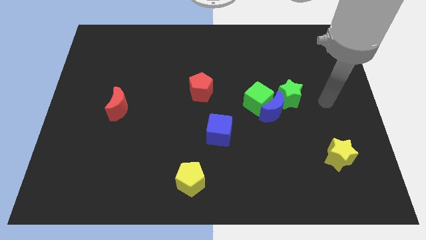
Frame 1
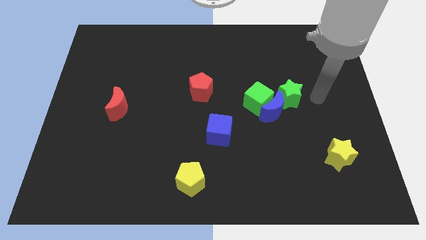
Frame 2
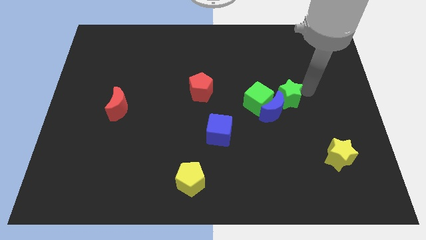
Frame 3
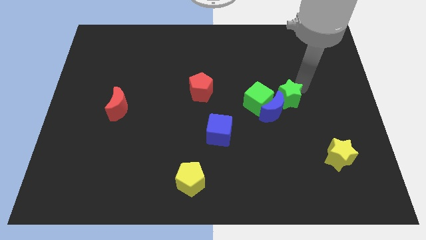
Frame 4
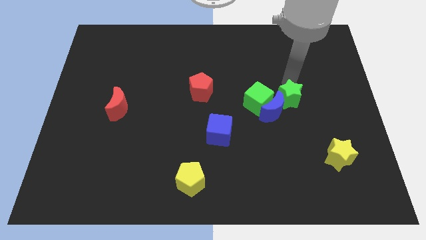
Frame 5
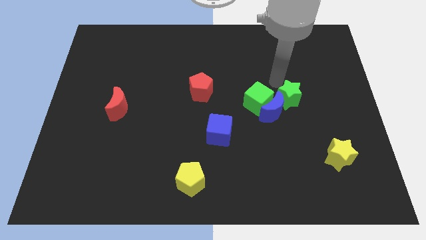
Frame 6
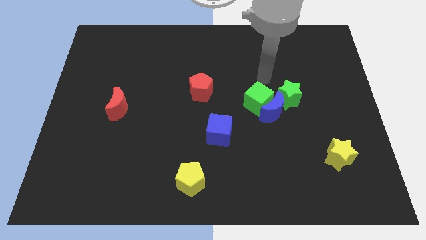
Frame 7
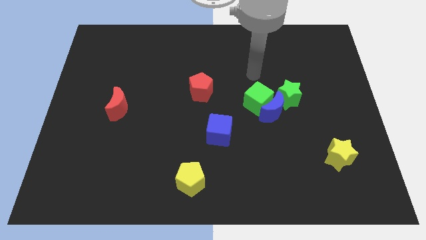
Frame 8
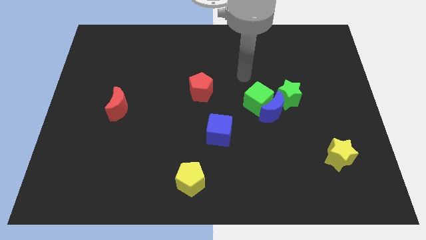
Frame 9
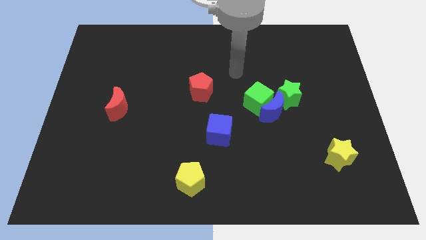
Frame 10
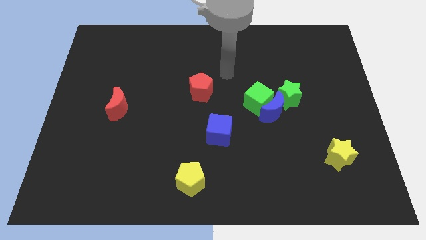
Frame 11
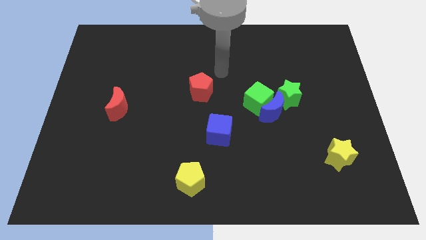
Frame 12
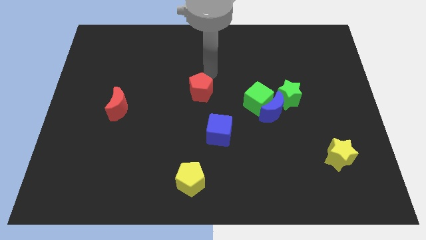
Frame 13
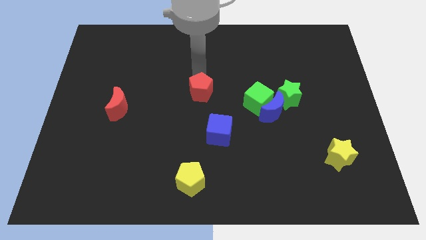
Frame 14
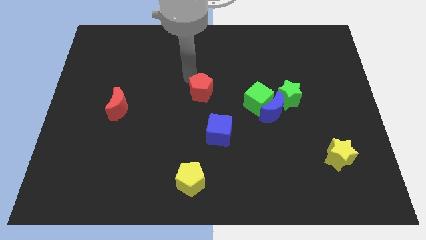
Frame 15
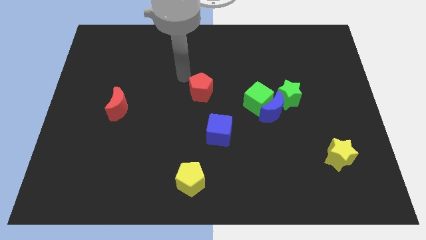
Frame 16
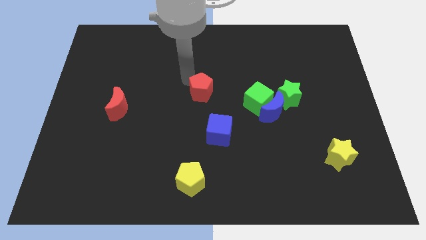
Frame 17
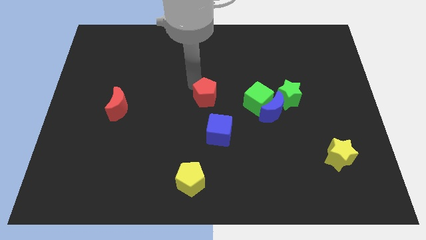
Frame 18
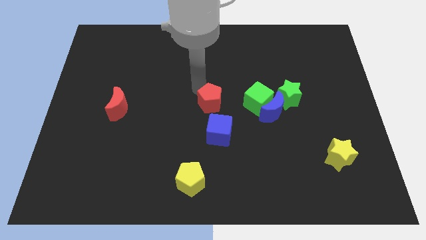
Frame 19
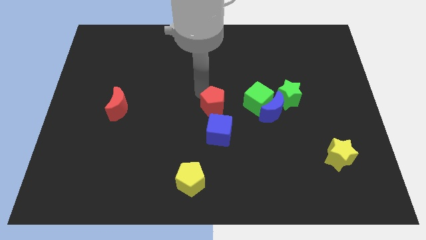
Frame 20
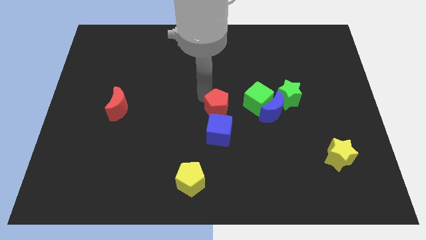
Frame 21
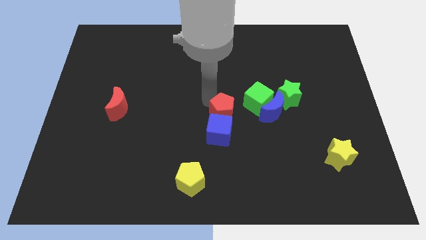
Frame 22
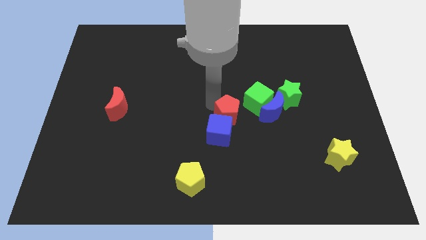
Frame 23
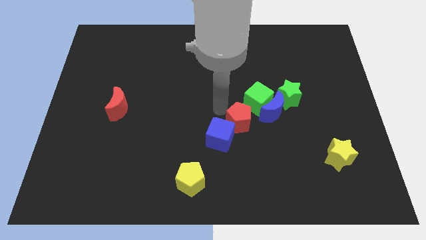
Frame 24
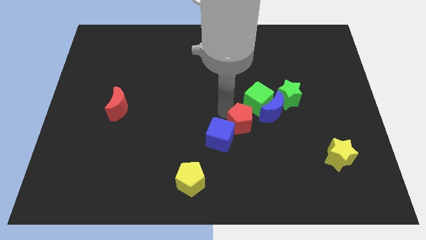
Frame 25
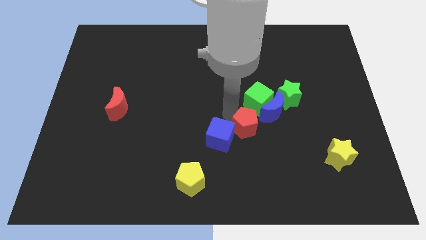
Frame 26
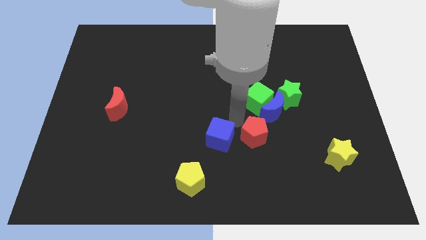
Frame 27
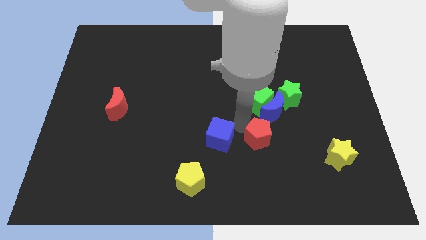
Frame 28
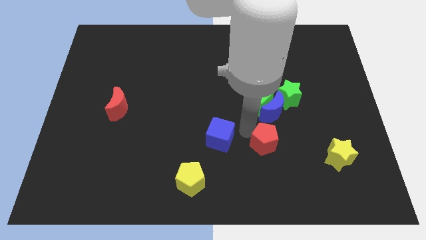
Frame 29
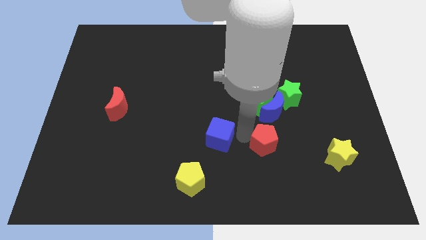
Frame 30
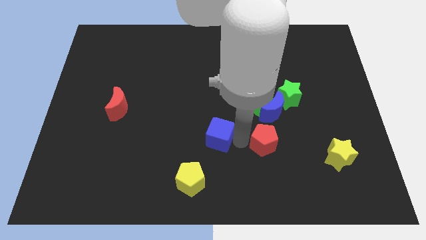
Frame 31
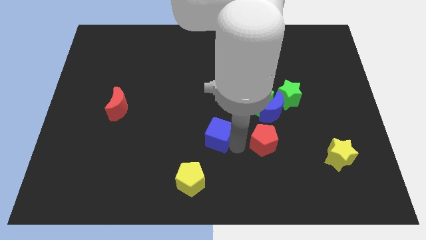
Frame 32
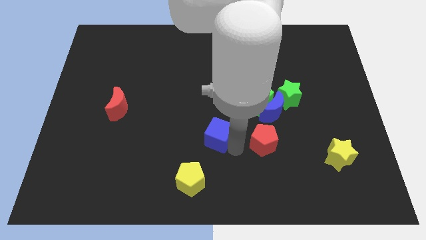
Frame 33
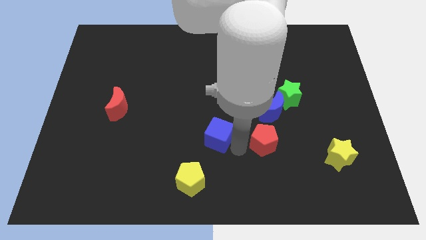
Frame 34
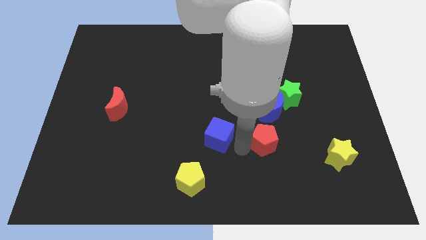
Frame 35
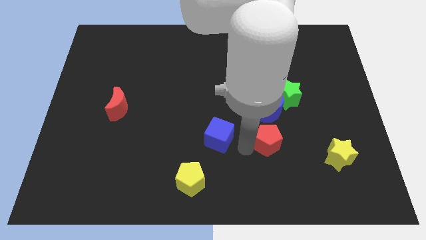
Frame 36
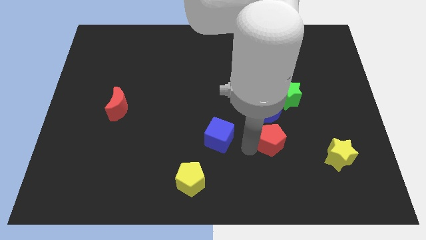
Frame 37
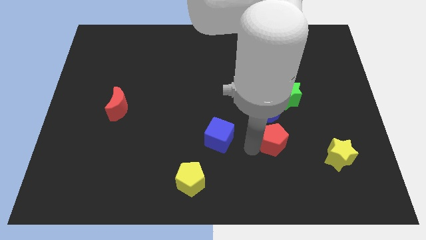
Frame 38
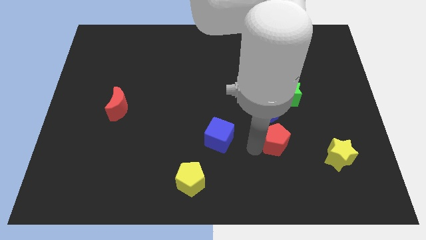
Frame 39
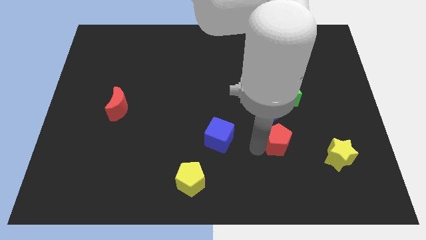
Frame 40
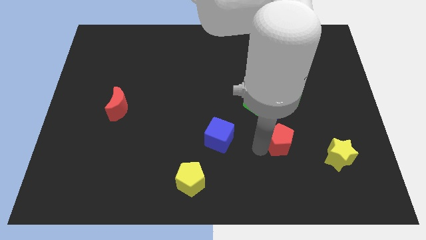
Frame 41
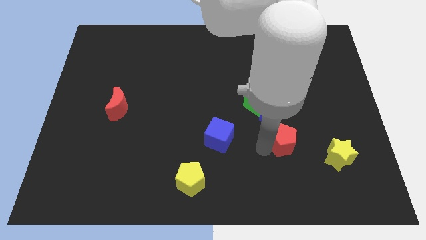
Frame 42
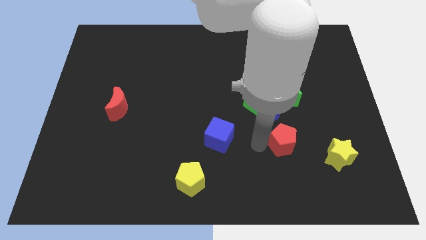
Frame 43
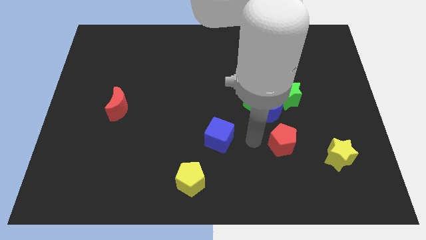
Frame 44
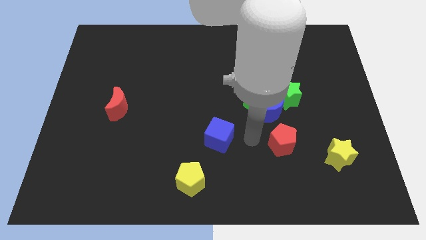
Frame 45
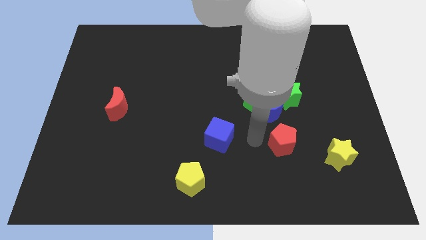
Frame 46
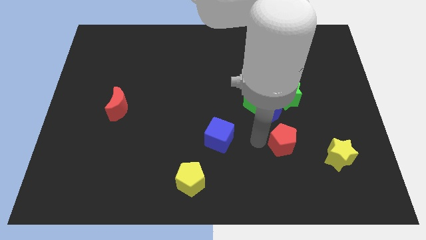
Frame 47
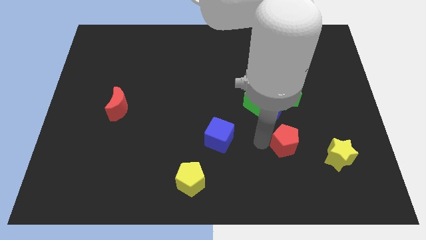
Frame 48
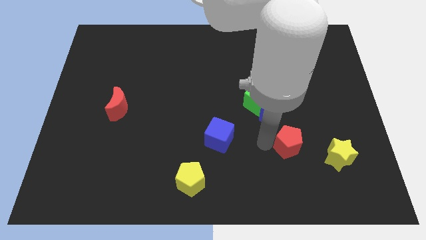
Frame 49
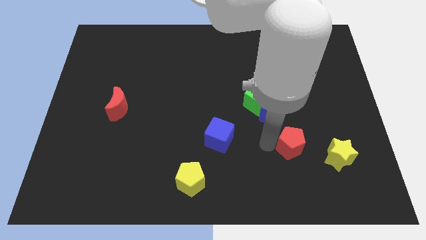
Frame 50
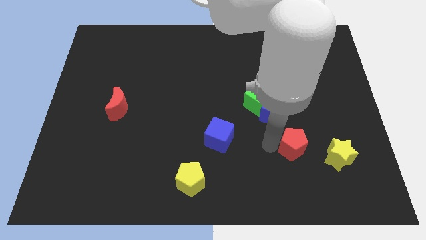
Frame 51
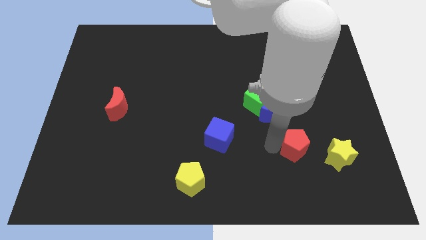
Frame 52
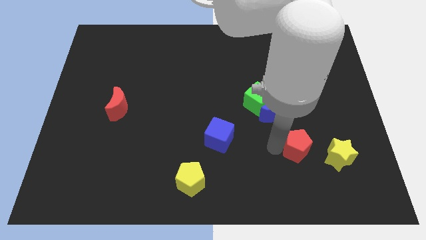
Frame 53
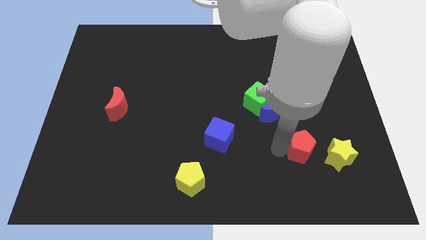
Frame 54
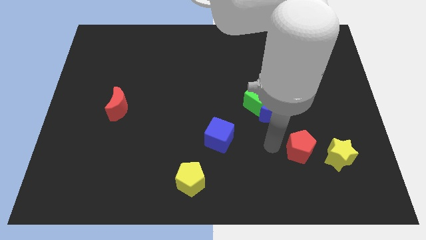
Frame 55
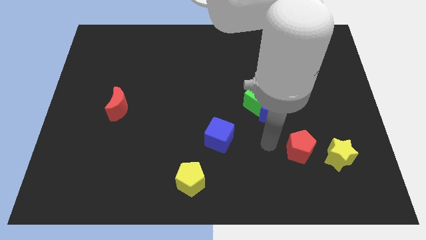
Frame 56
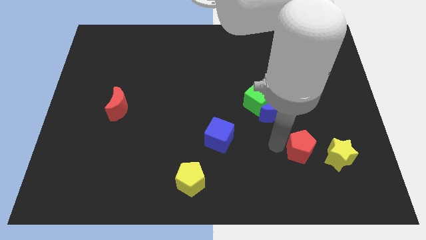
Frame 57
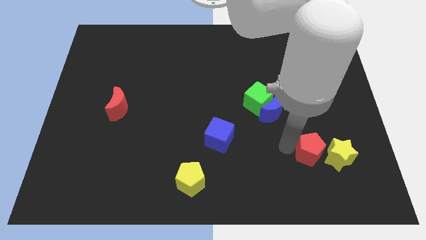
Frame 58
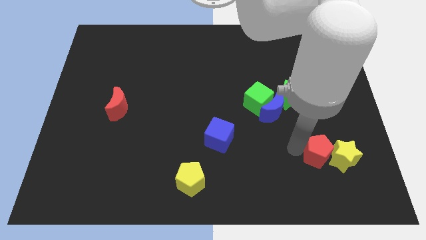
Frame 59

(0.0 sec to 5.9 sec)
put the red pentagon to the yellow star
